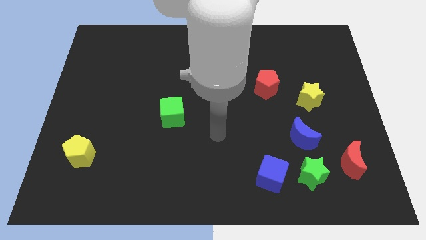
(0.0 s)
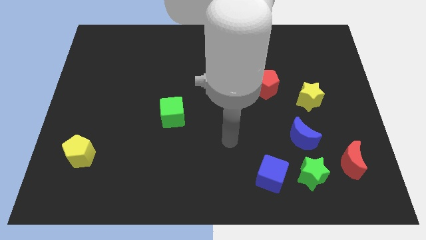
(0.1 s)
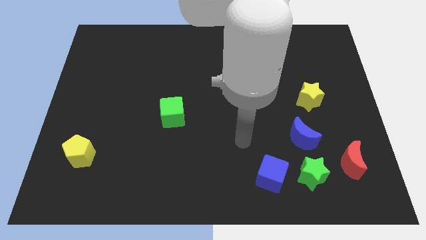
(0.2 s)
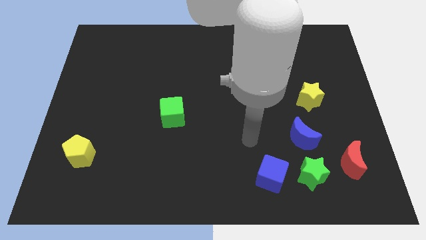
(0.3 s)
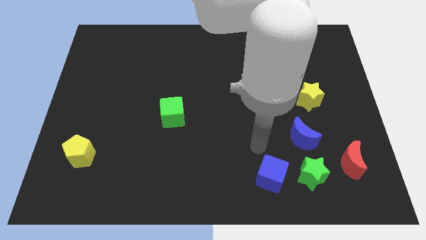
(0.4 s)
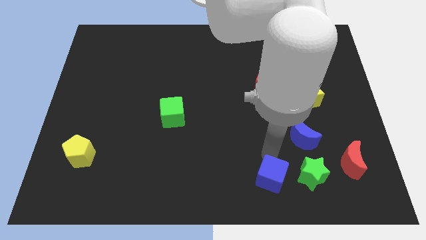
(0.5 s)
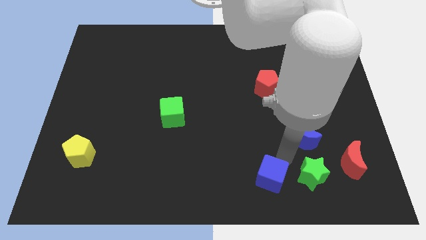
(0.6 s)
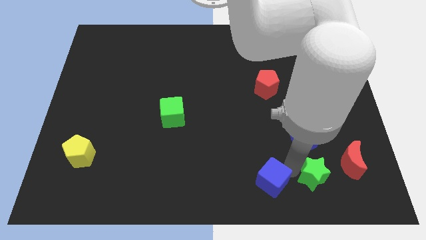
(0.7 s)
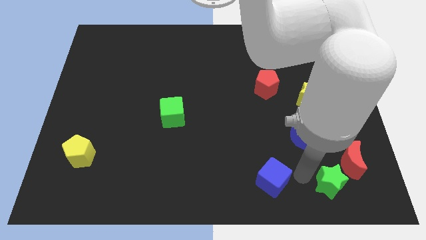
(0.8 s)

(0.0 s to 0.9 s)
pull the blue cube apart from the green star

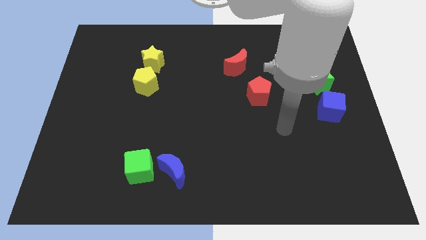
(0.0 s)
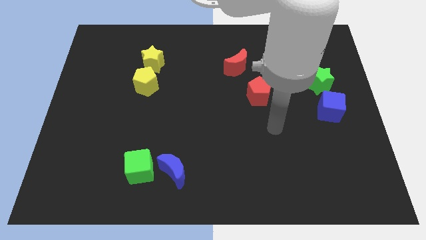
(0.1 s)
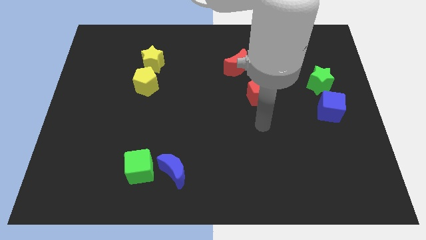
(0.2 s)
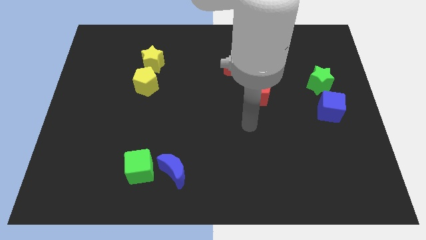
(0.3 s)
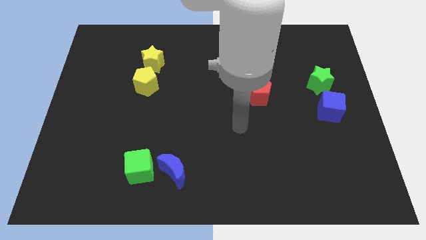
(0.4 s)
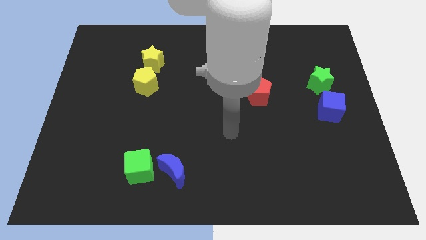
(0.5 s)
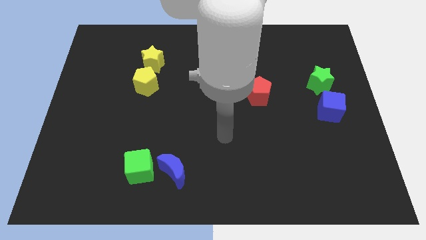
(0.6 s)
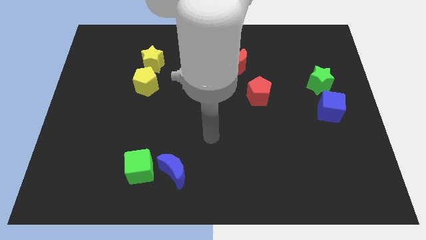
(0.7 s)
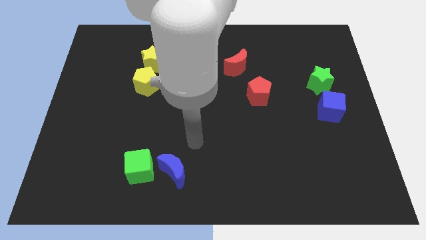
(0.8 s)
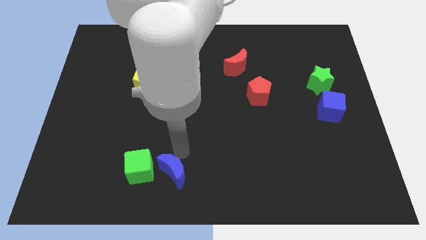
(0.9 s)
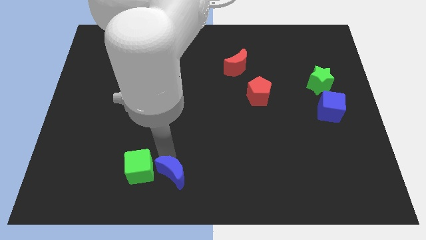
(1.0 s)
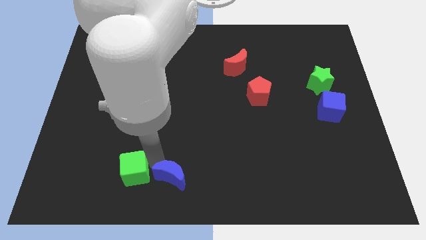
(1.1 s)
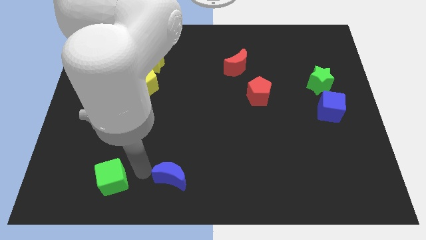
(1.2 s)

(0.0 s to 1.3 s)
pull the blue moon apart from the green cube

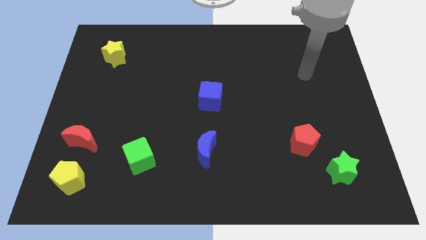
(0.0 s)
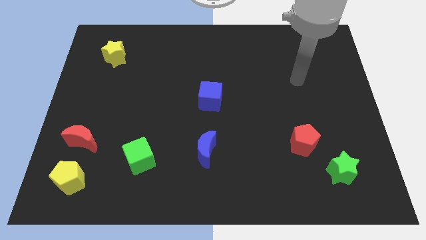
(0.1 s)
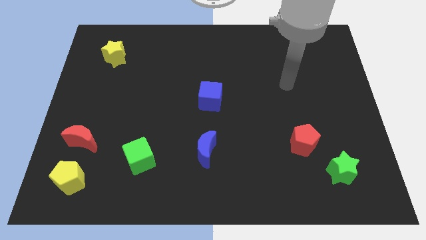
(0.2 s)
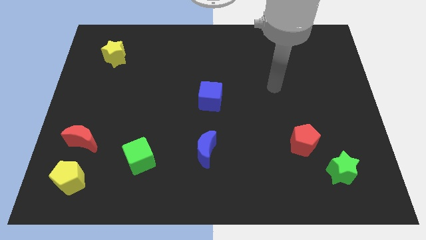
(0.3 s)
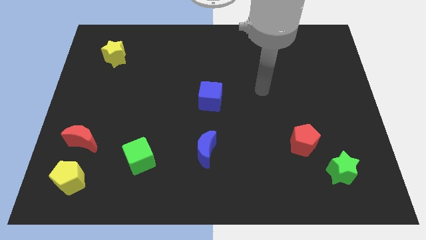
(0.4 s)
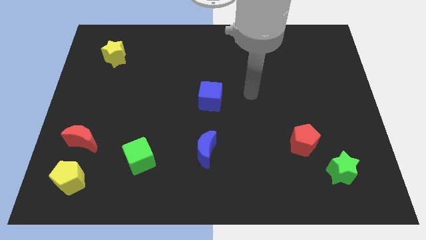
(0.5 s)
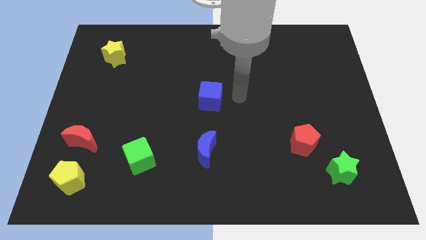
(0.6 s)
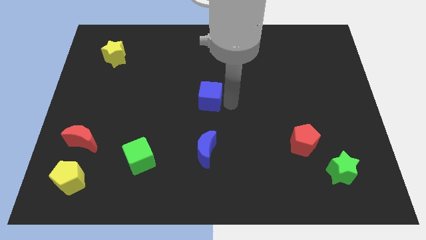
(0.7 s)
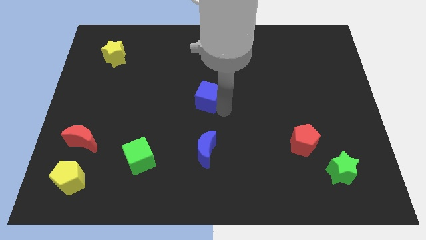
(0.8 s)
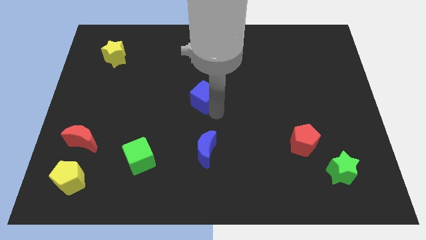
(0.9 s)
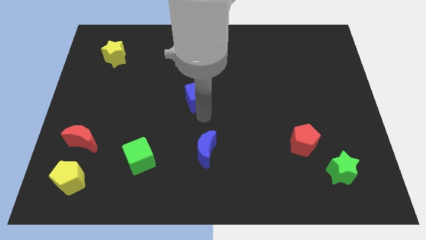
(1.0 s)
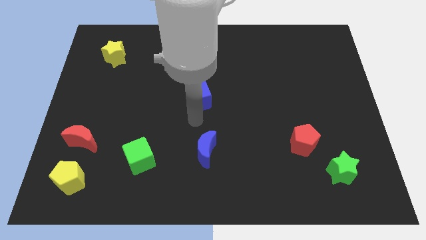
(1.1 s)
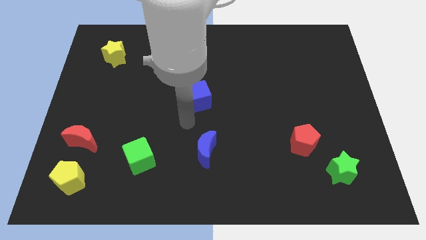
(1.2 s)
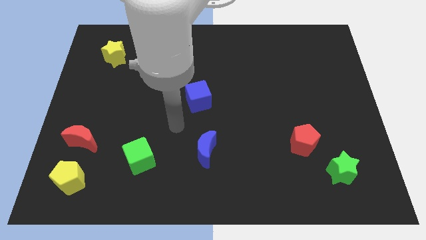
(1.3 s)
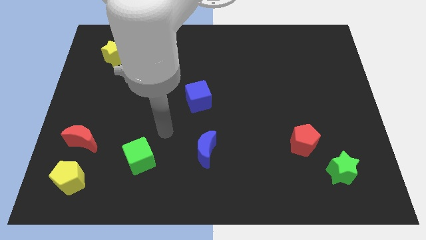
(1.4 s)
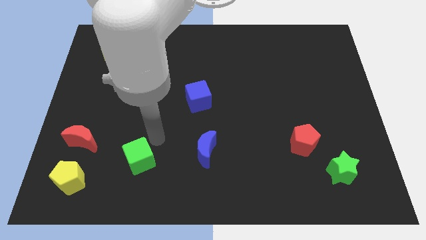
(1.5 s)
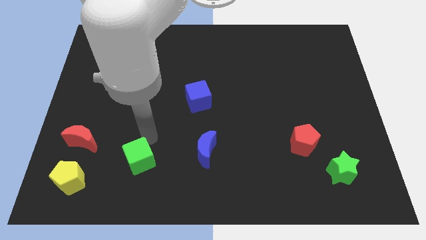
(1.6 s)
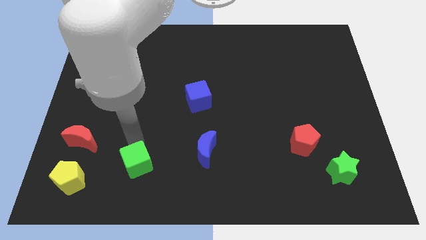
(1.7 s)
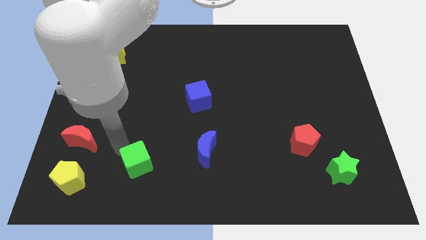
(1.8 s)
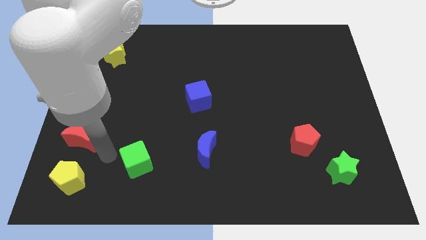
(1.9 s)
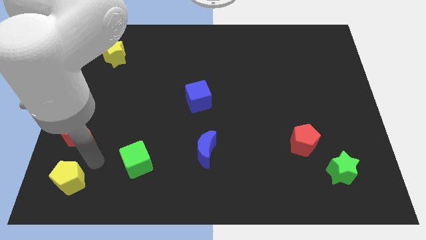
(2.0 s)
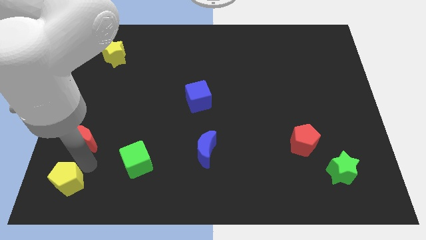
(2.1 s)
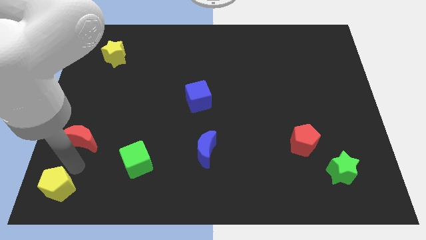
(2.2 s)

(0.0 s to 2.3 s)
separate the red moon from the yellow pentagon

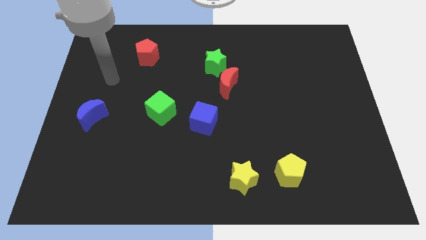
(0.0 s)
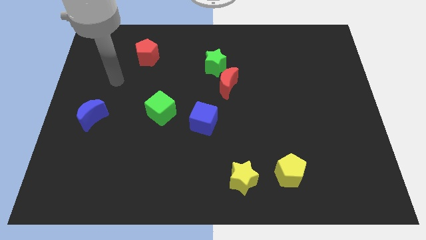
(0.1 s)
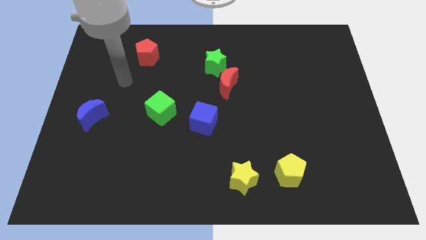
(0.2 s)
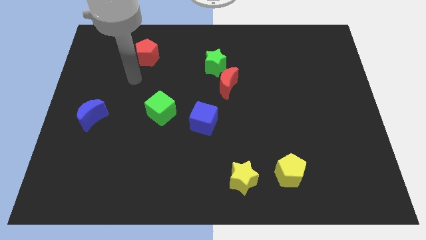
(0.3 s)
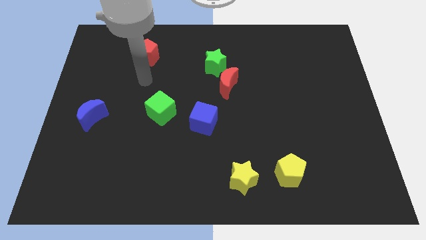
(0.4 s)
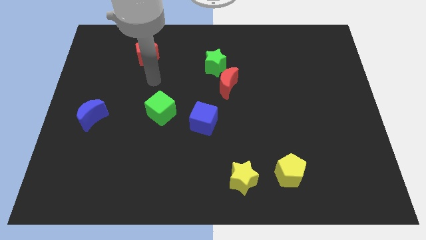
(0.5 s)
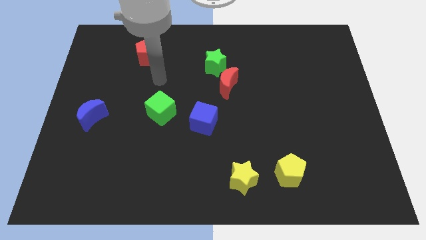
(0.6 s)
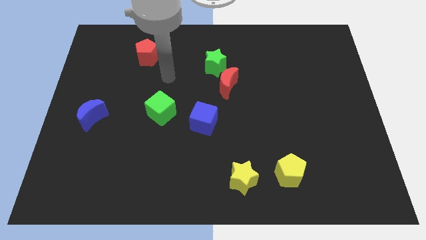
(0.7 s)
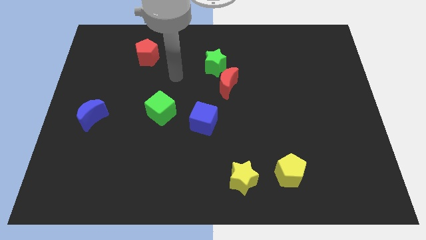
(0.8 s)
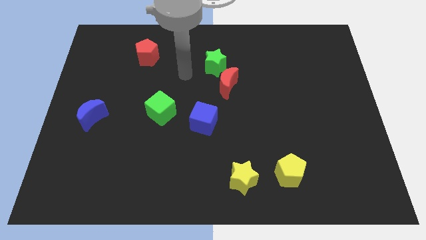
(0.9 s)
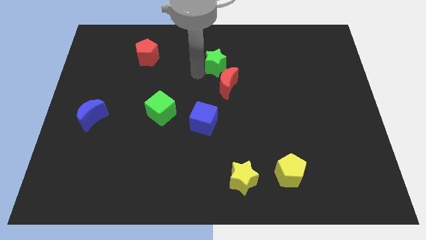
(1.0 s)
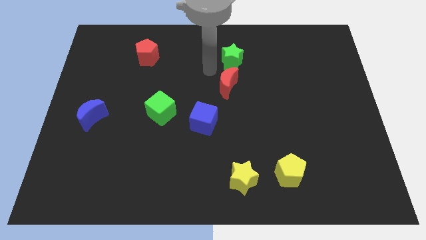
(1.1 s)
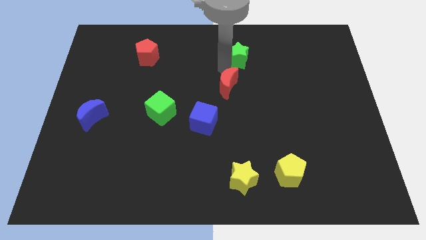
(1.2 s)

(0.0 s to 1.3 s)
pull the red moon apart from the green star

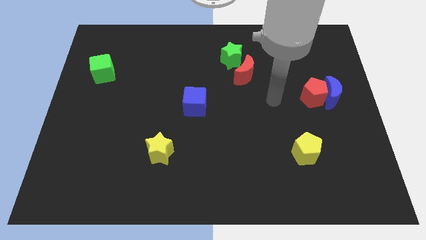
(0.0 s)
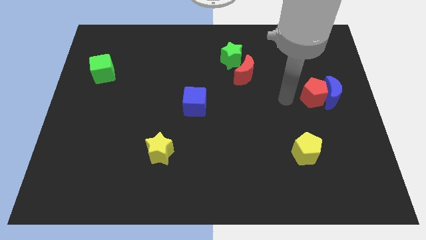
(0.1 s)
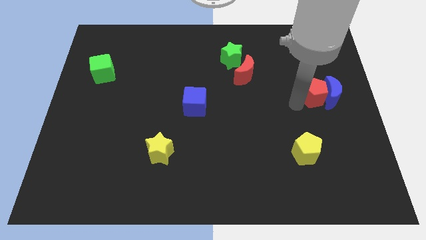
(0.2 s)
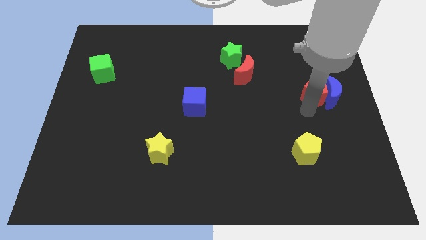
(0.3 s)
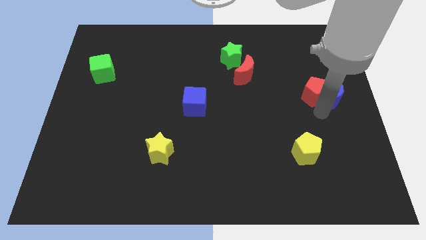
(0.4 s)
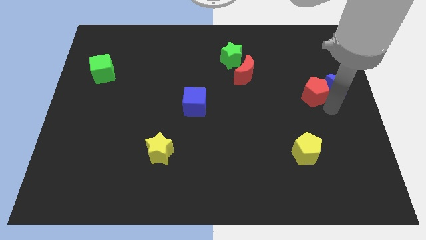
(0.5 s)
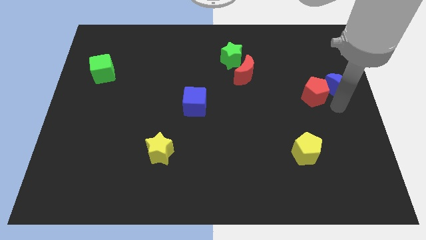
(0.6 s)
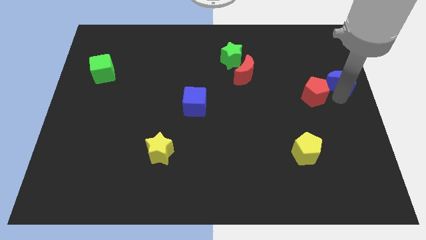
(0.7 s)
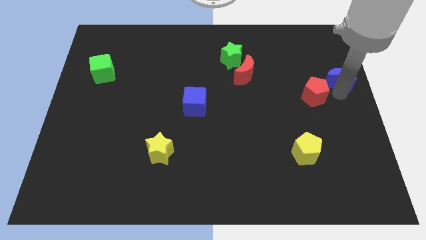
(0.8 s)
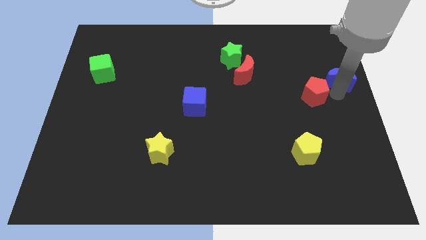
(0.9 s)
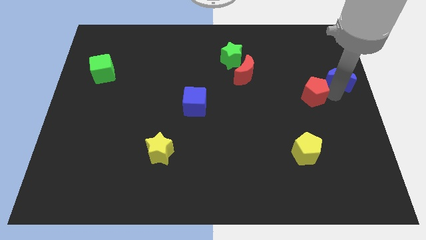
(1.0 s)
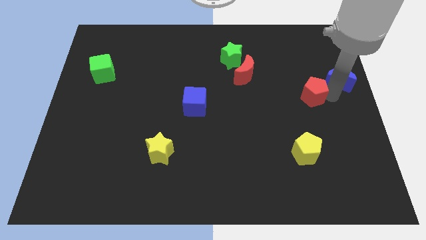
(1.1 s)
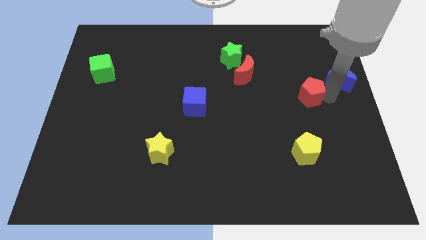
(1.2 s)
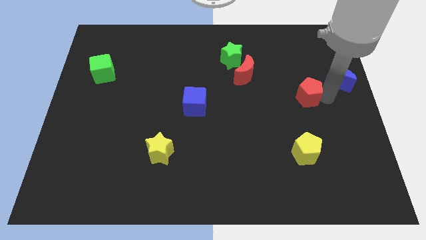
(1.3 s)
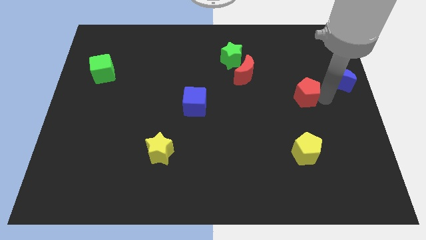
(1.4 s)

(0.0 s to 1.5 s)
move the red pentagon away from the blue moon

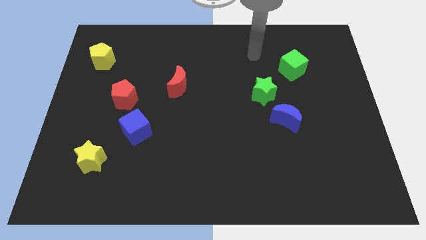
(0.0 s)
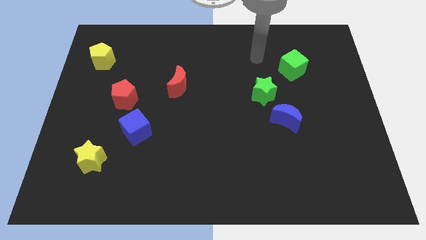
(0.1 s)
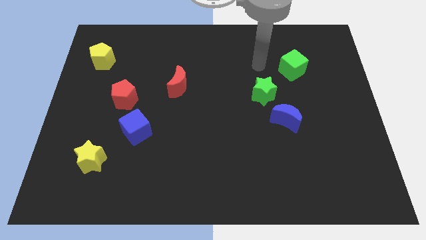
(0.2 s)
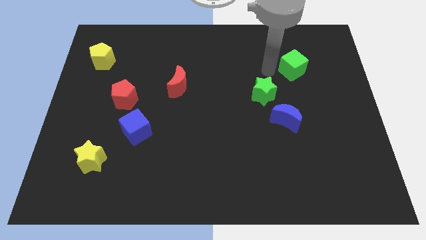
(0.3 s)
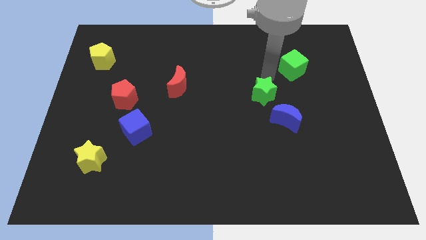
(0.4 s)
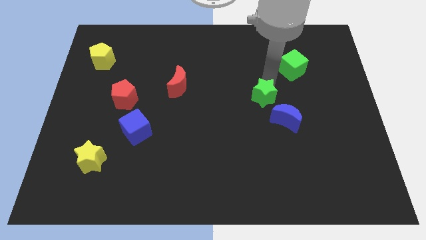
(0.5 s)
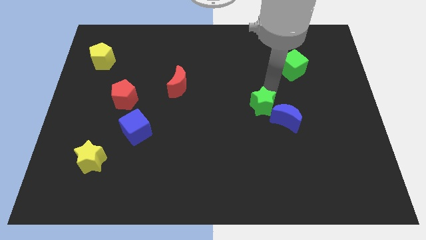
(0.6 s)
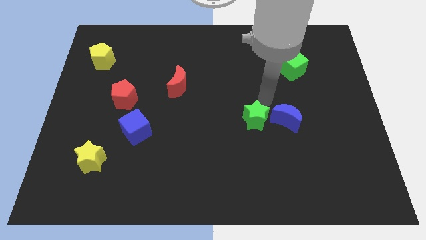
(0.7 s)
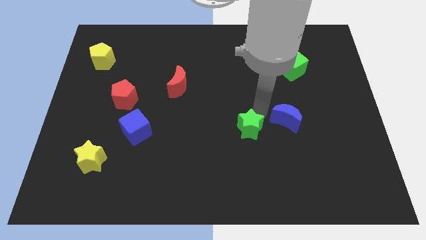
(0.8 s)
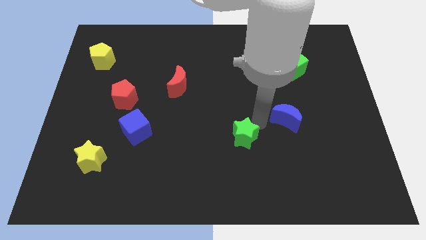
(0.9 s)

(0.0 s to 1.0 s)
move the blue moon away from the green star

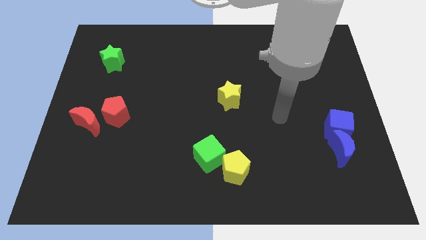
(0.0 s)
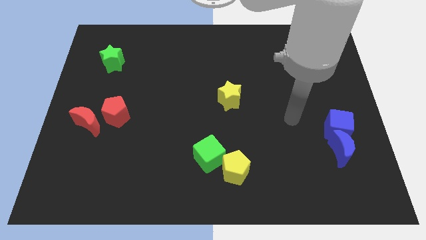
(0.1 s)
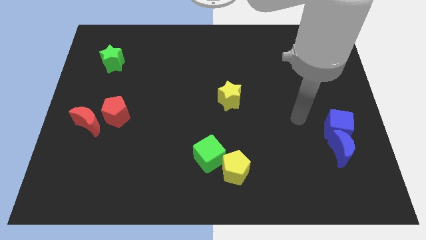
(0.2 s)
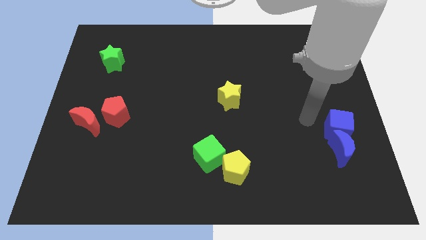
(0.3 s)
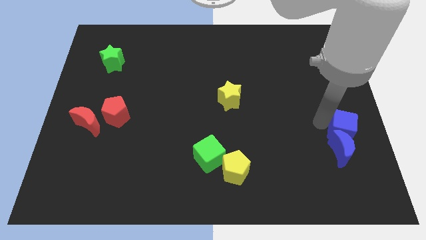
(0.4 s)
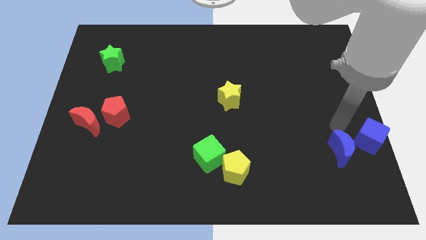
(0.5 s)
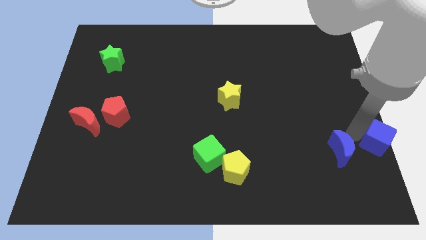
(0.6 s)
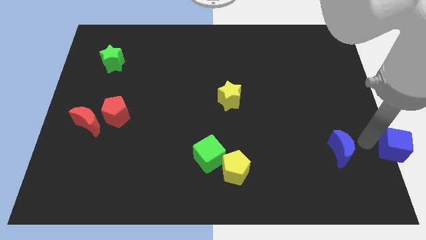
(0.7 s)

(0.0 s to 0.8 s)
pull the blue moon apart from the blue cube

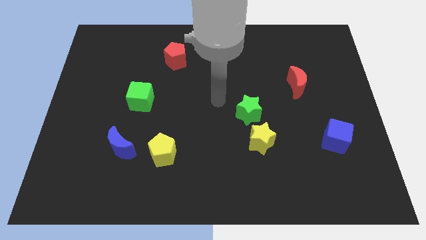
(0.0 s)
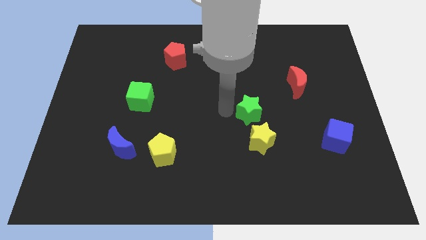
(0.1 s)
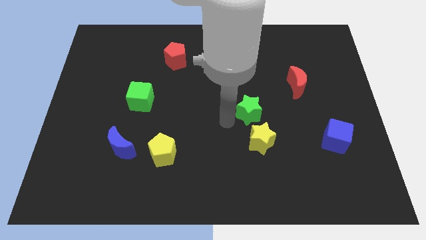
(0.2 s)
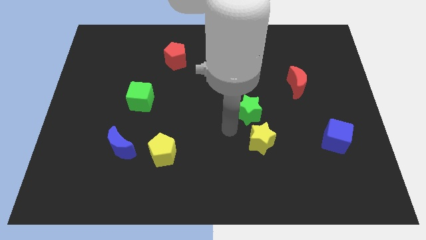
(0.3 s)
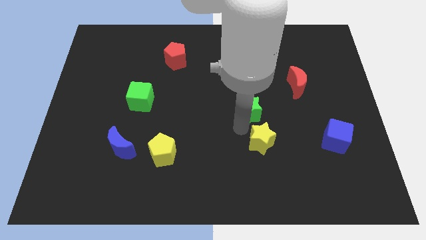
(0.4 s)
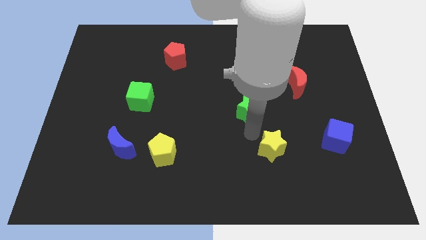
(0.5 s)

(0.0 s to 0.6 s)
move the green star away from the yellow star
